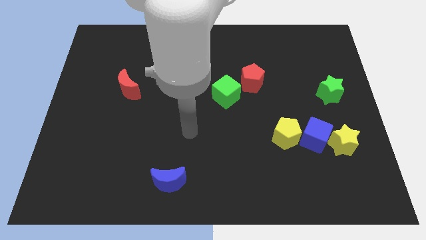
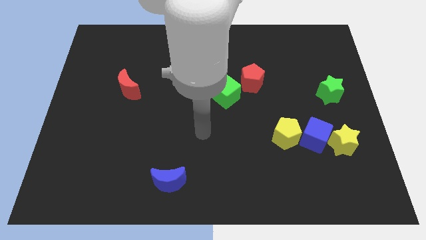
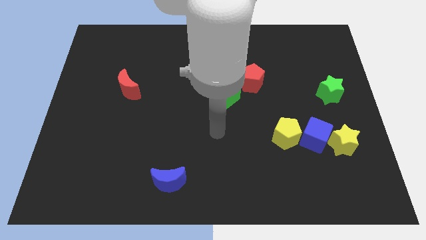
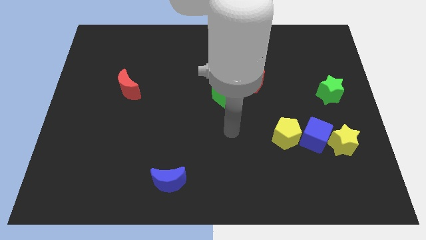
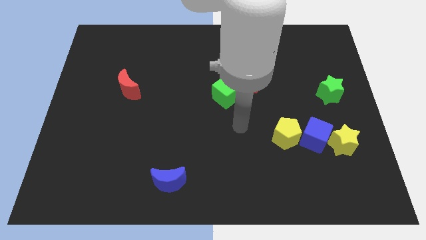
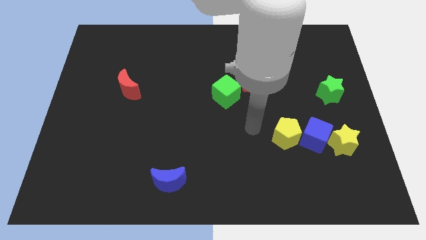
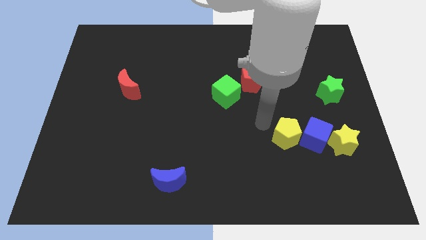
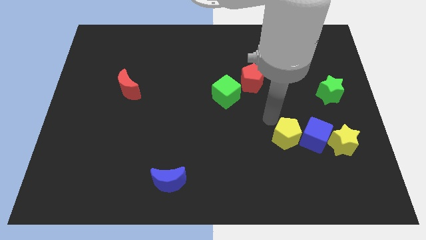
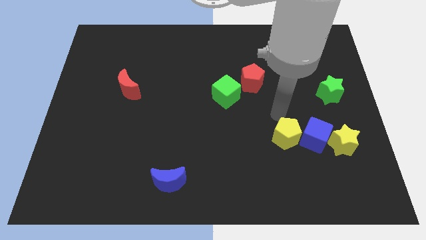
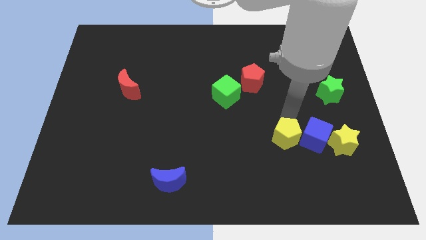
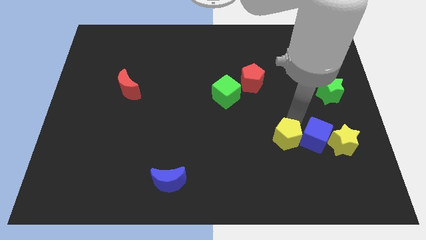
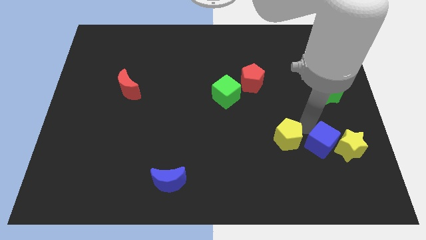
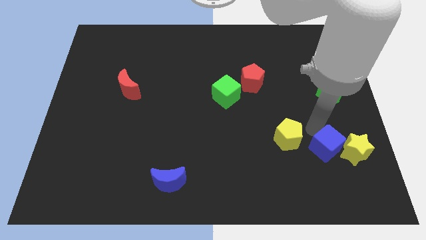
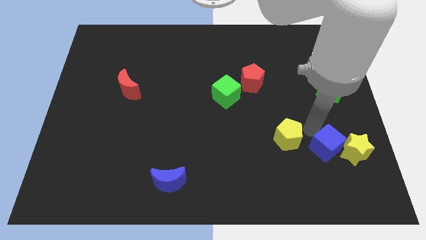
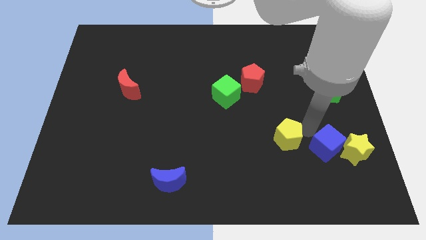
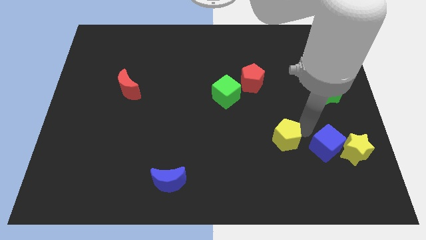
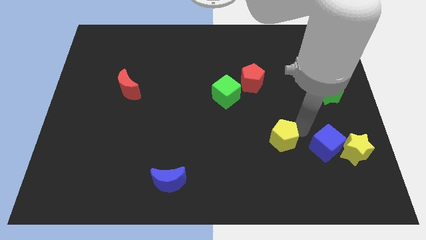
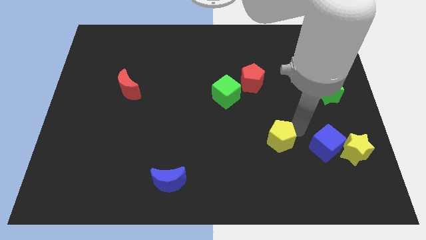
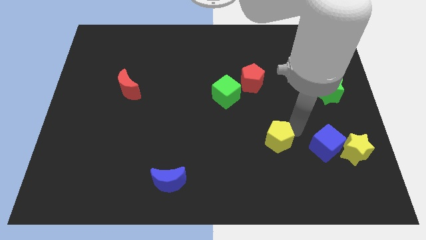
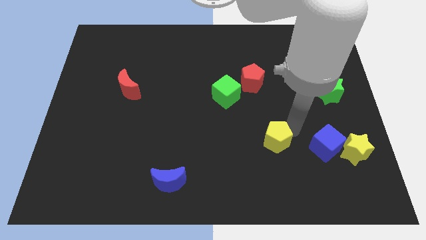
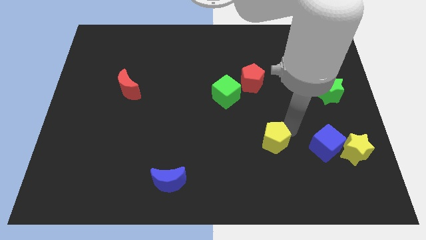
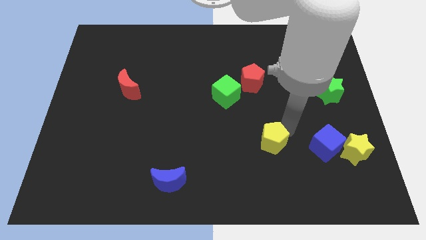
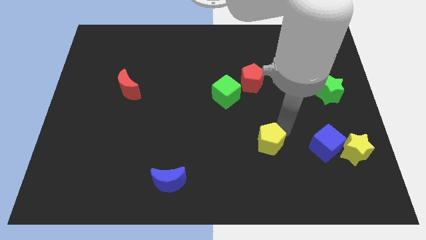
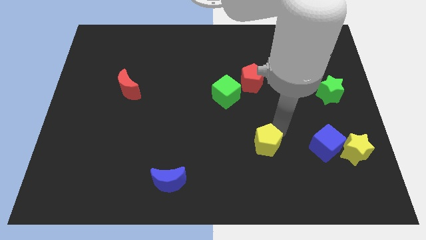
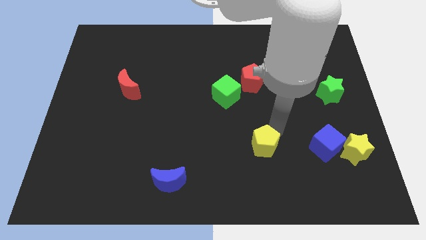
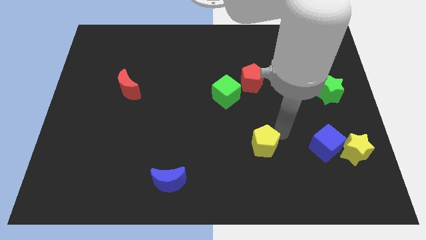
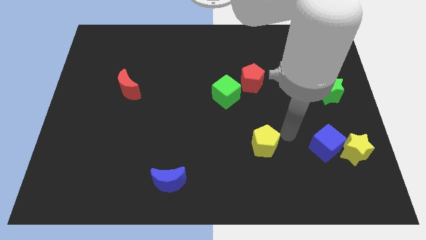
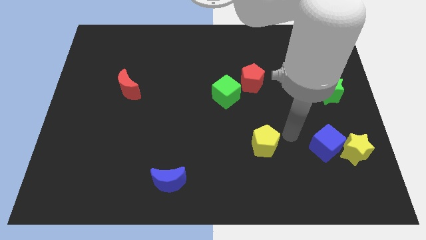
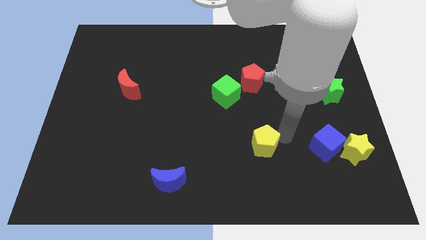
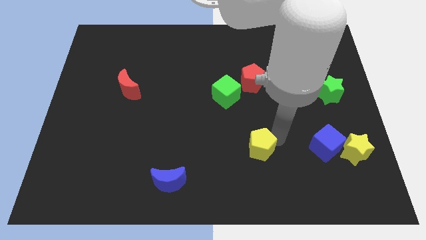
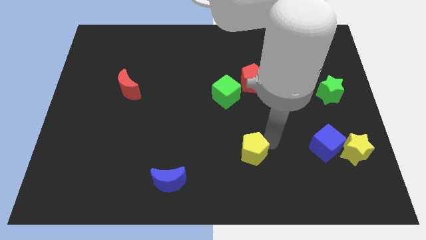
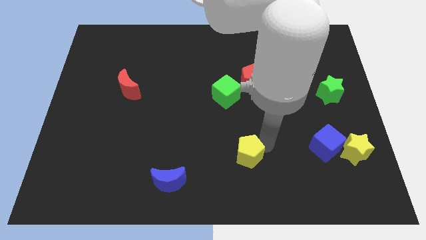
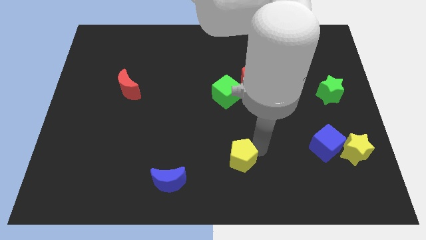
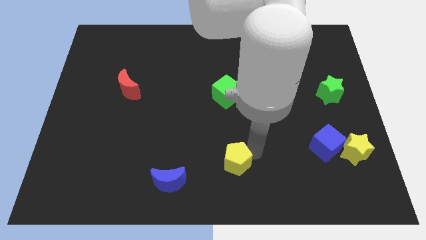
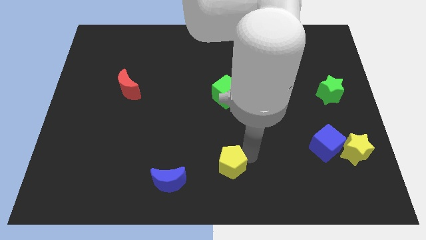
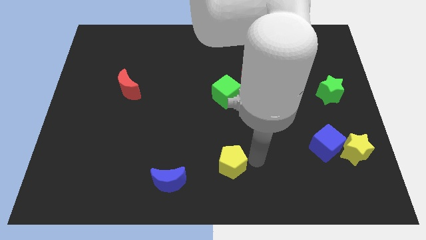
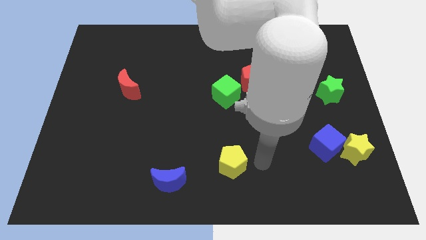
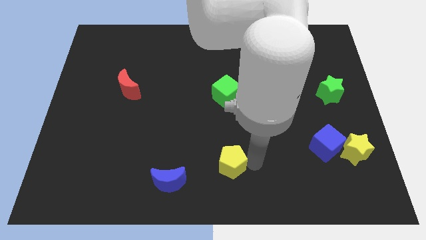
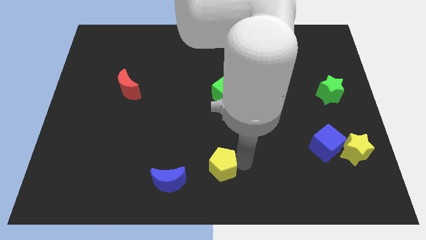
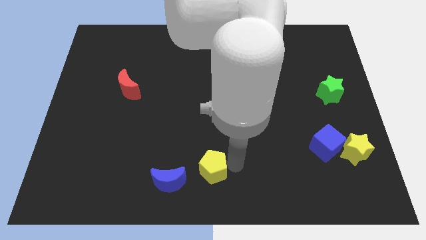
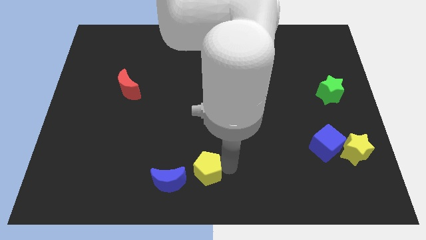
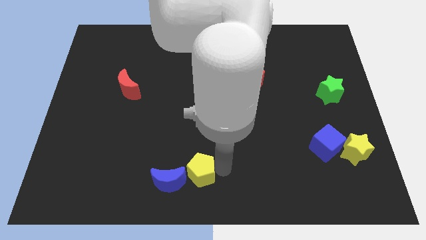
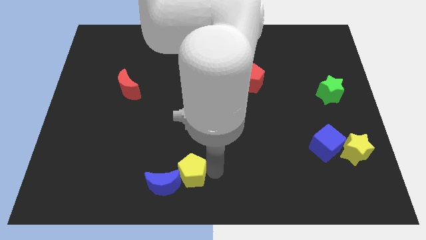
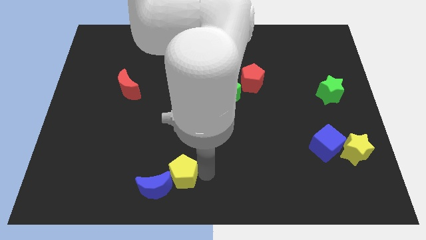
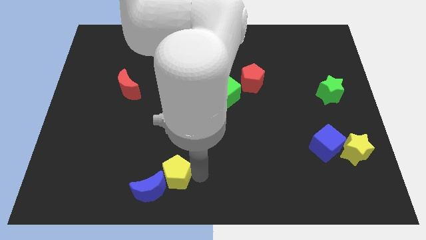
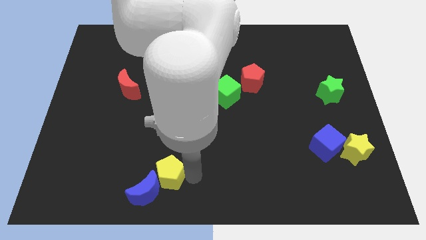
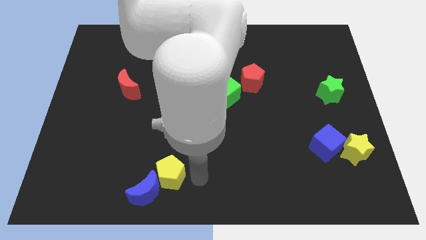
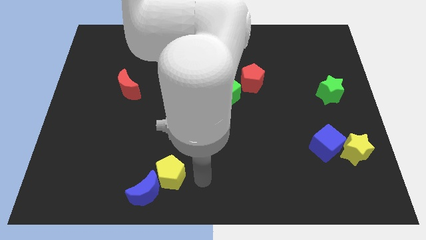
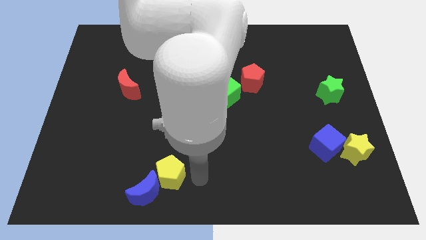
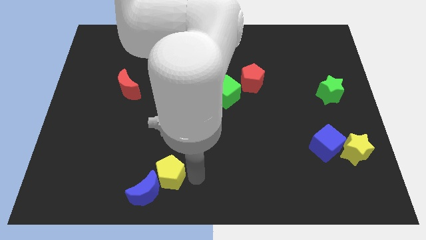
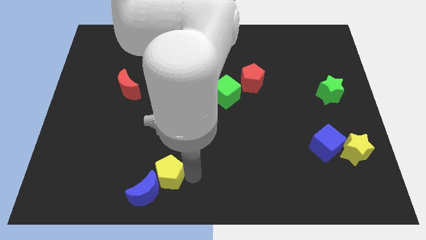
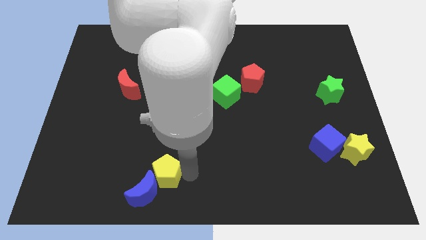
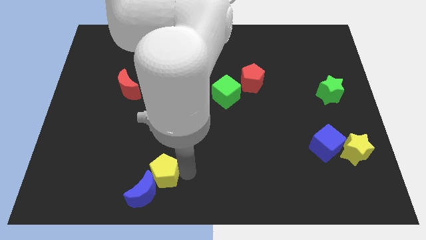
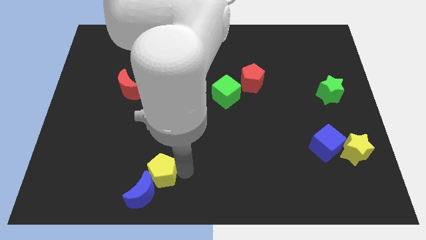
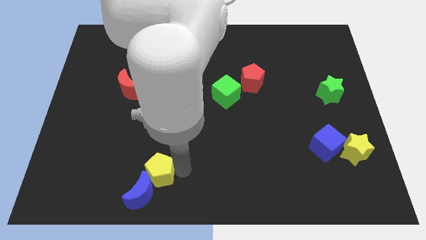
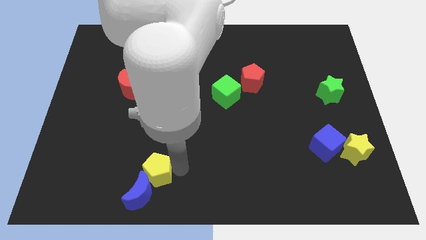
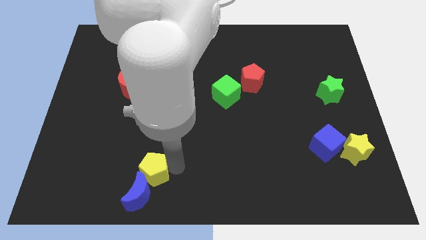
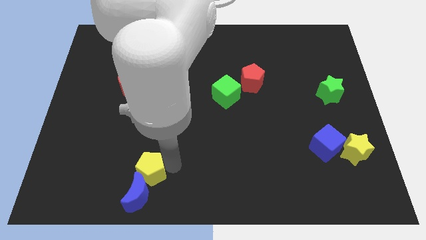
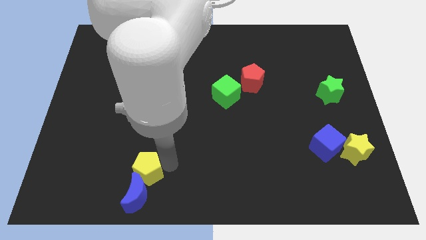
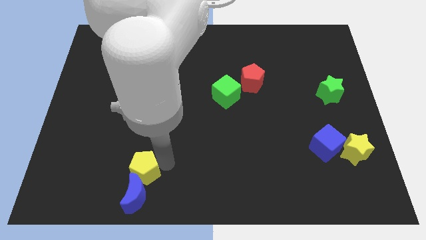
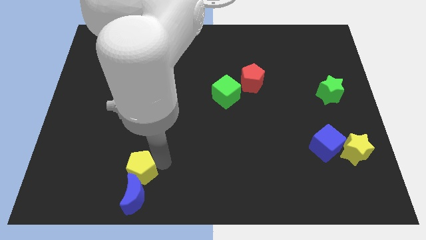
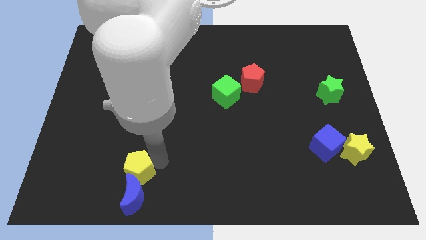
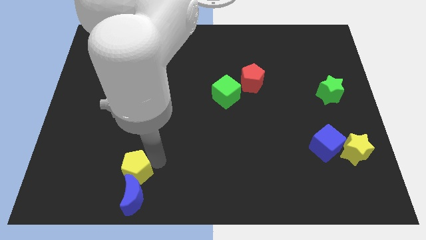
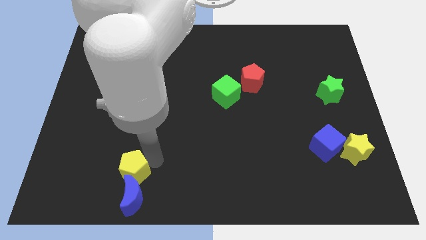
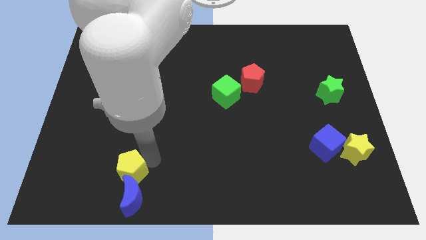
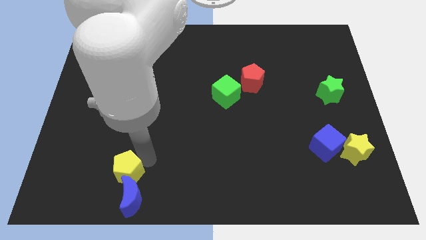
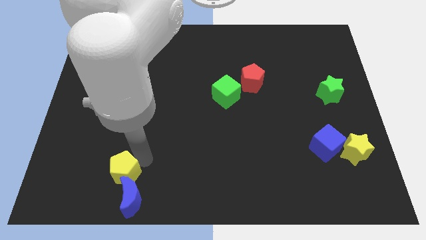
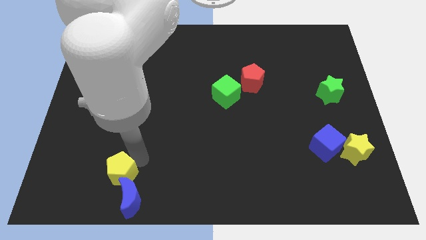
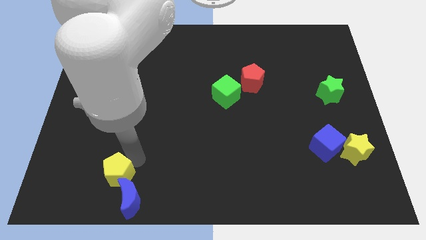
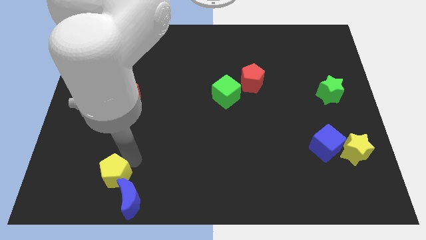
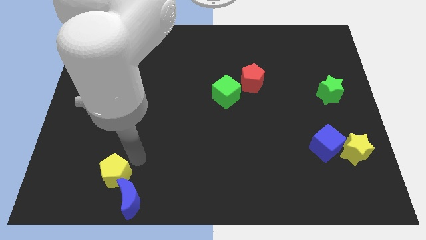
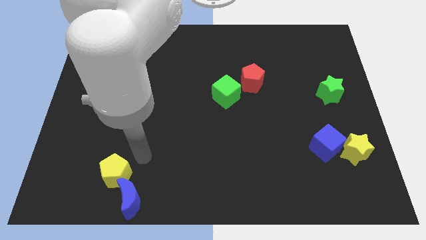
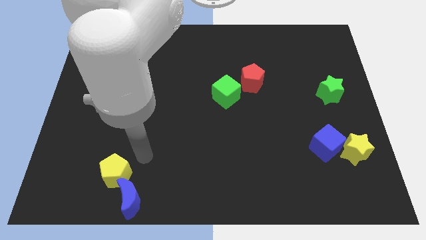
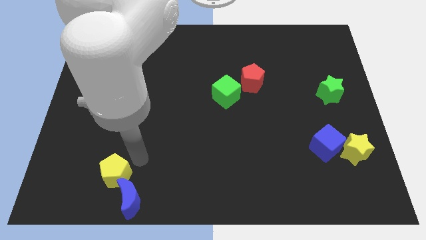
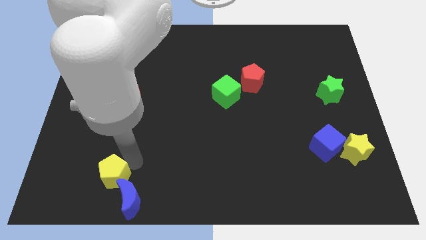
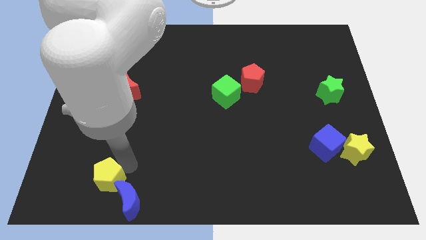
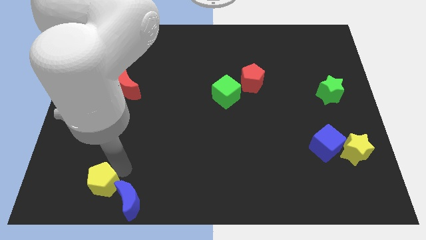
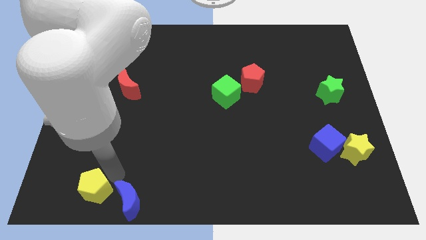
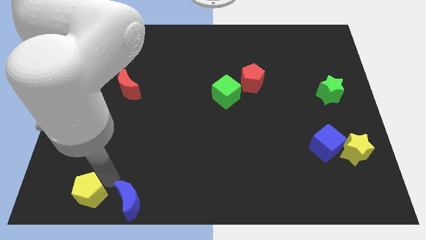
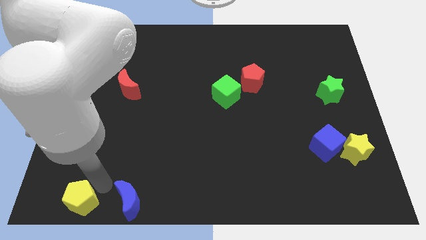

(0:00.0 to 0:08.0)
move the yellow pentagon to the lower left corner
